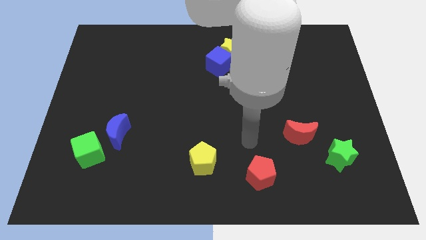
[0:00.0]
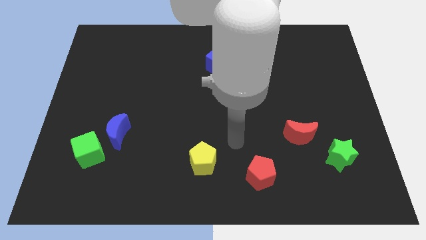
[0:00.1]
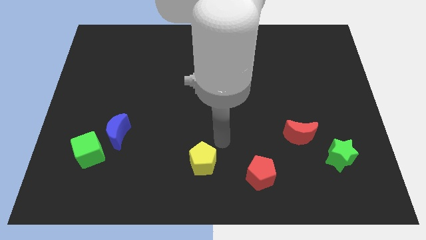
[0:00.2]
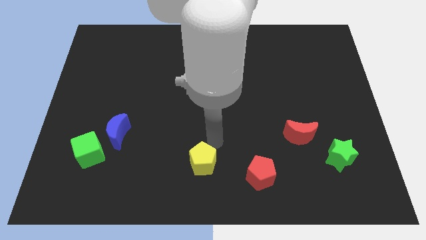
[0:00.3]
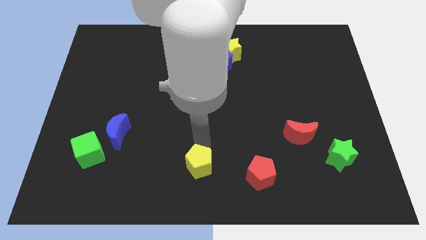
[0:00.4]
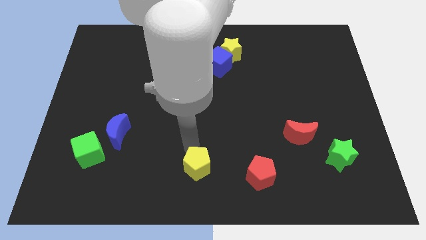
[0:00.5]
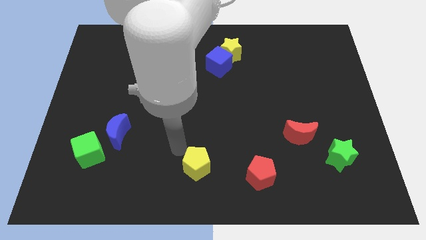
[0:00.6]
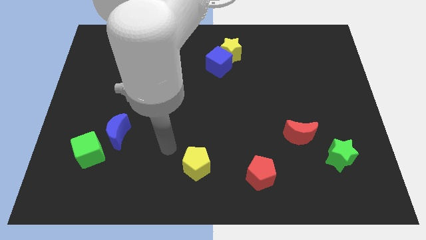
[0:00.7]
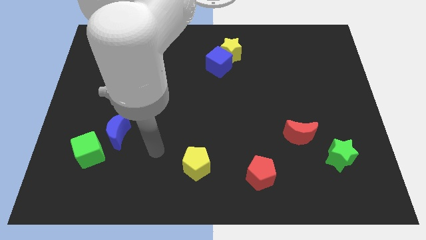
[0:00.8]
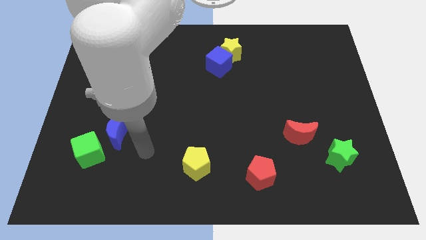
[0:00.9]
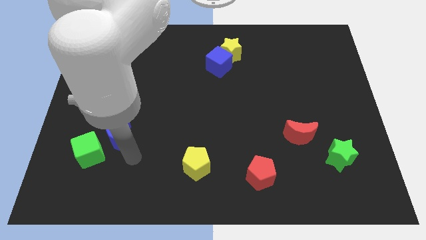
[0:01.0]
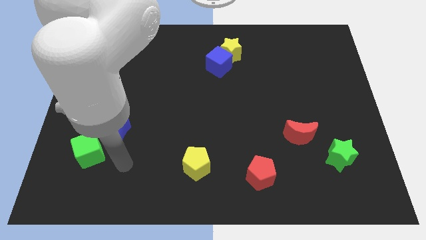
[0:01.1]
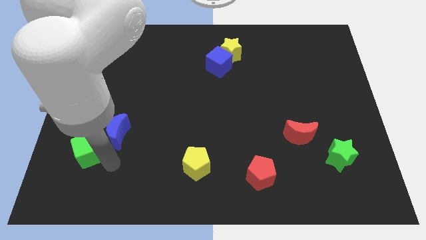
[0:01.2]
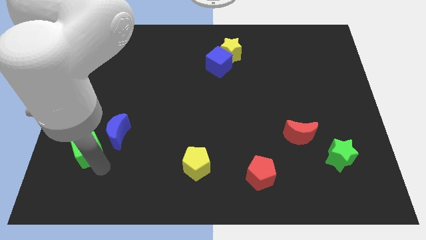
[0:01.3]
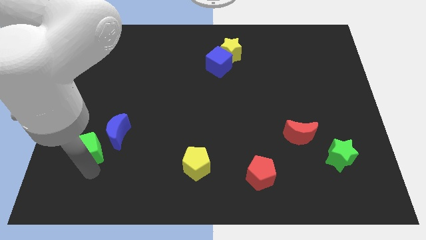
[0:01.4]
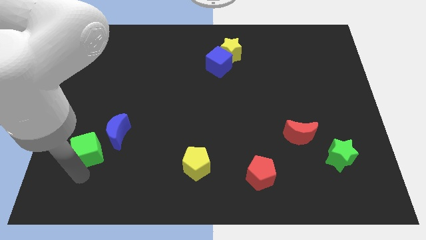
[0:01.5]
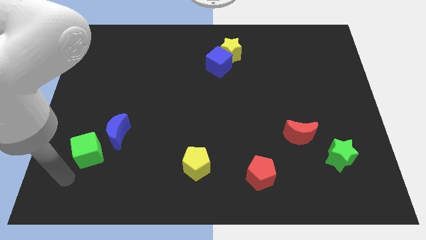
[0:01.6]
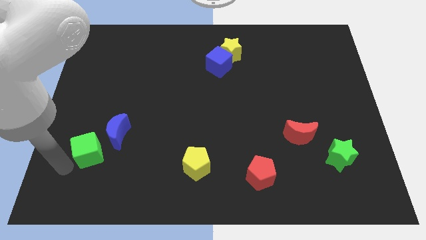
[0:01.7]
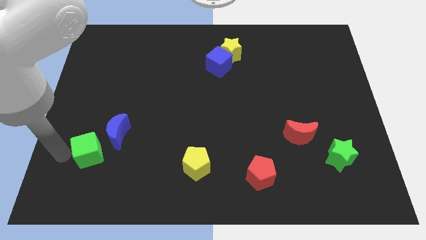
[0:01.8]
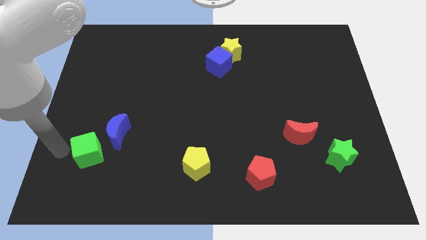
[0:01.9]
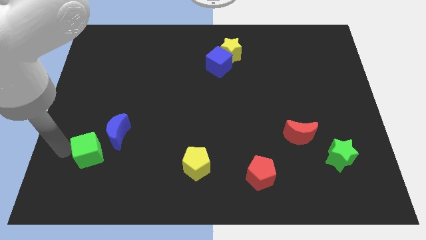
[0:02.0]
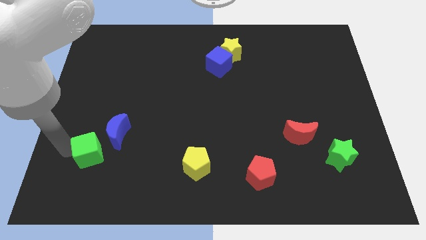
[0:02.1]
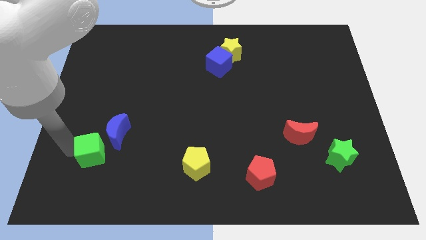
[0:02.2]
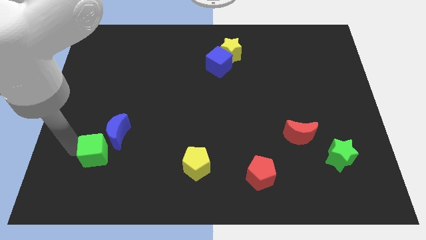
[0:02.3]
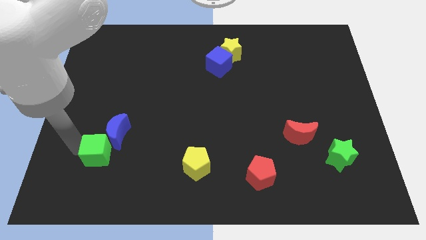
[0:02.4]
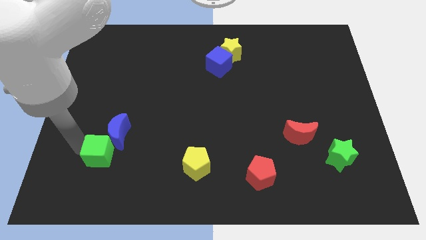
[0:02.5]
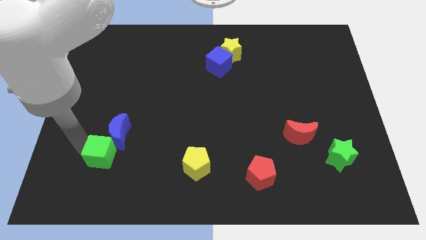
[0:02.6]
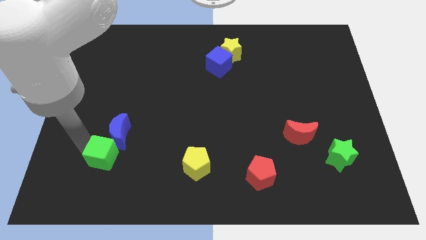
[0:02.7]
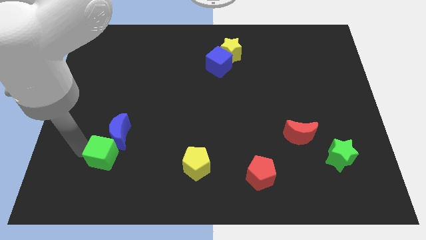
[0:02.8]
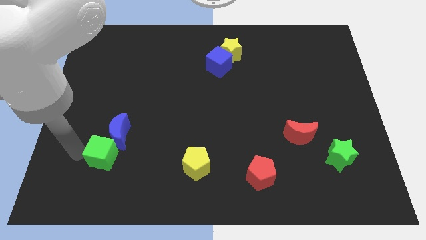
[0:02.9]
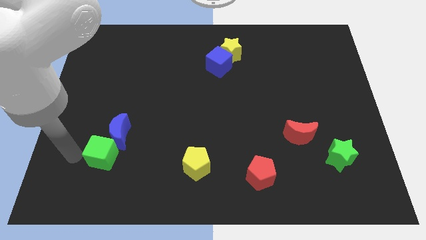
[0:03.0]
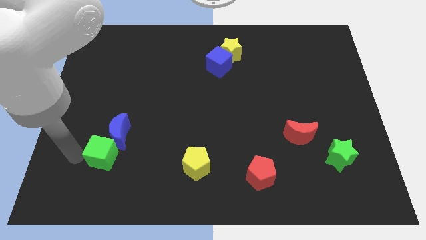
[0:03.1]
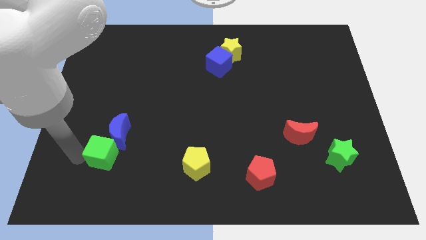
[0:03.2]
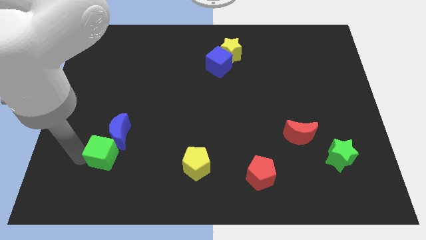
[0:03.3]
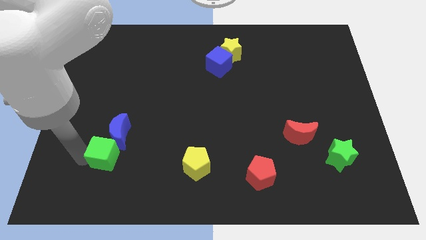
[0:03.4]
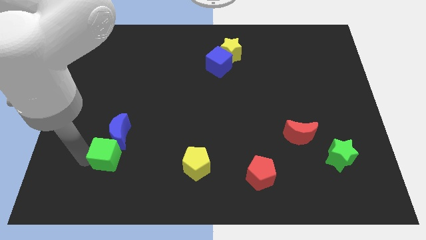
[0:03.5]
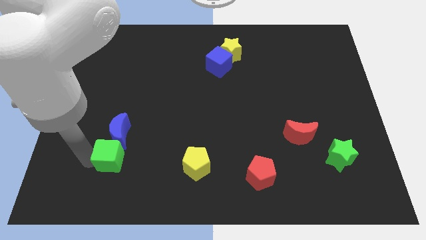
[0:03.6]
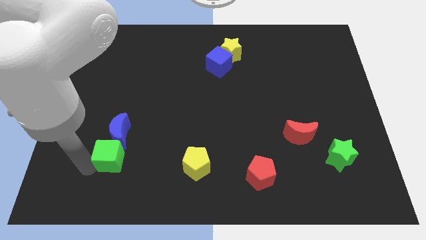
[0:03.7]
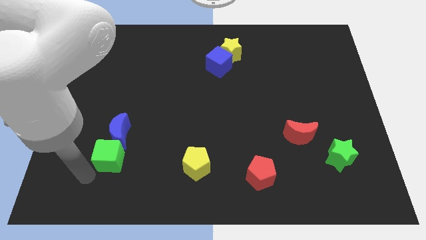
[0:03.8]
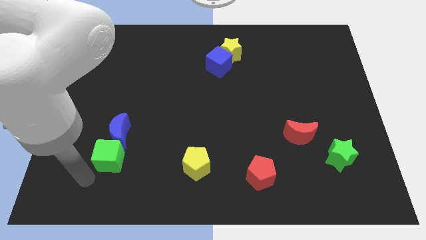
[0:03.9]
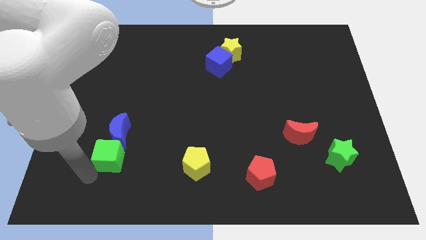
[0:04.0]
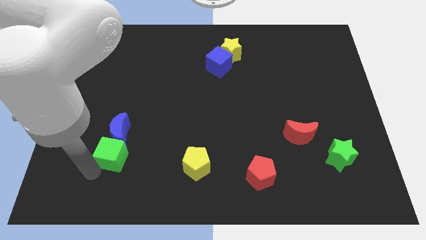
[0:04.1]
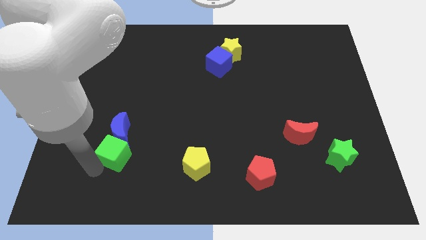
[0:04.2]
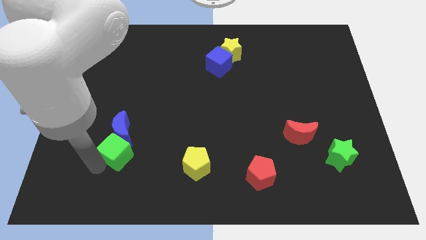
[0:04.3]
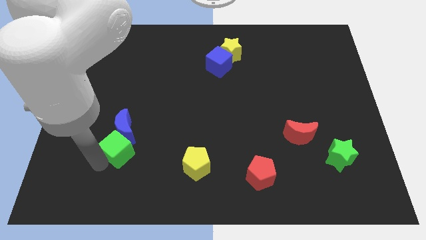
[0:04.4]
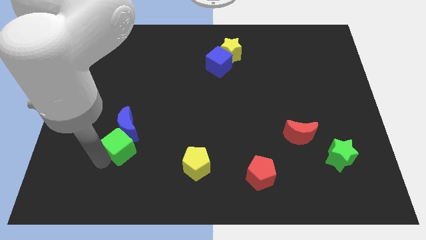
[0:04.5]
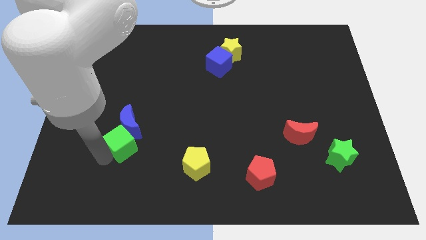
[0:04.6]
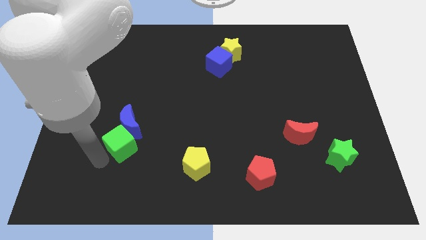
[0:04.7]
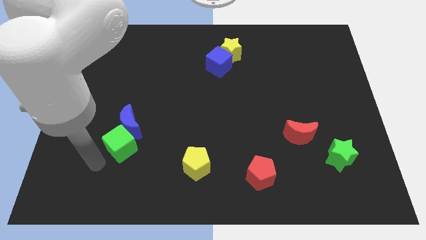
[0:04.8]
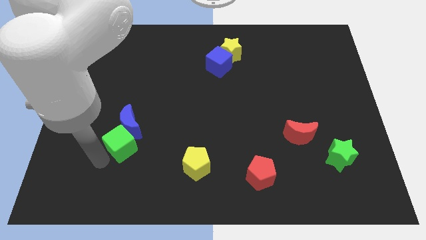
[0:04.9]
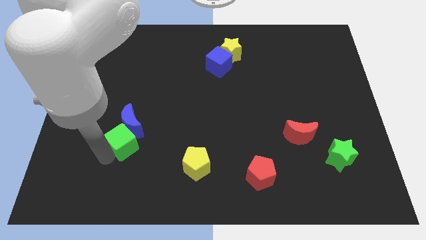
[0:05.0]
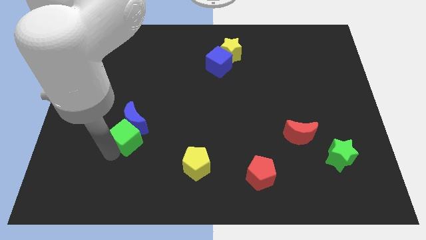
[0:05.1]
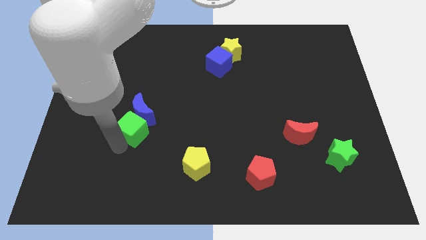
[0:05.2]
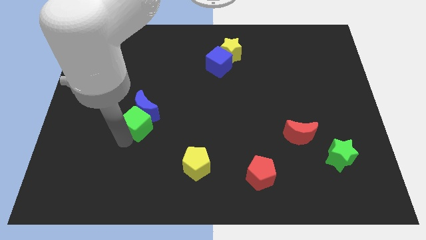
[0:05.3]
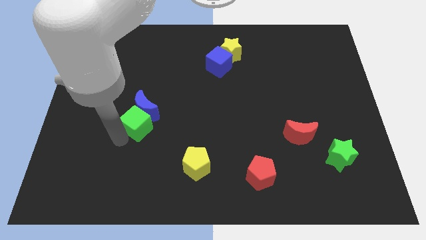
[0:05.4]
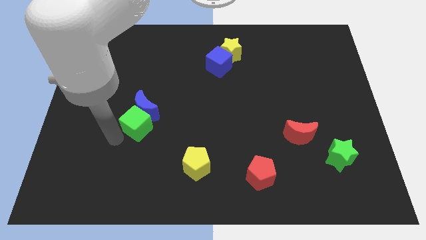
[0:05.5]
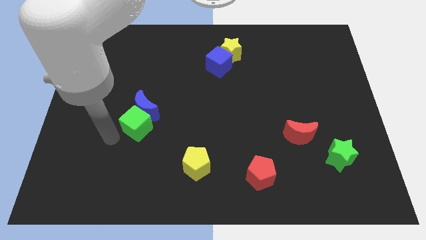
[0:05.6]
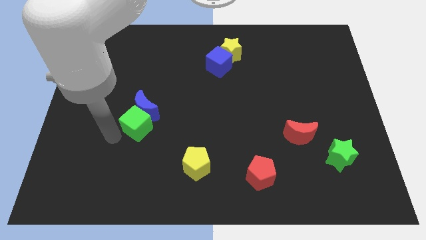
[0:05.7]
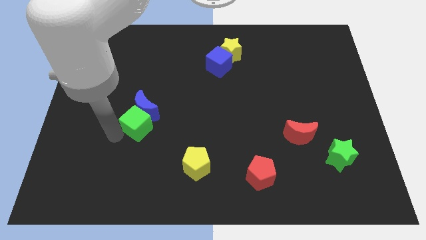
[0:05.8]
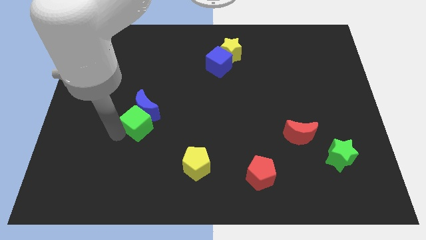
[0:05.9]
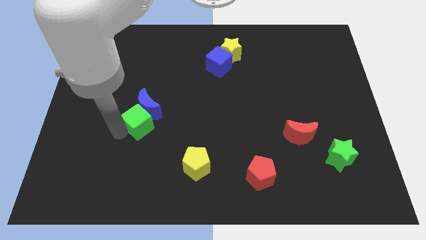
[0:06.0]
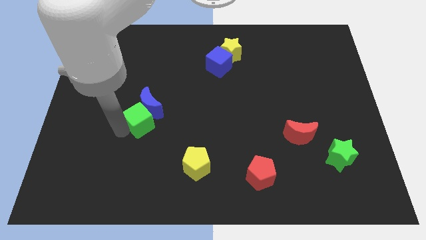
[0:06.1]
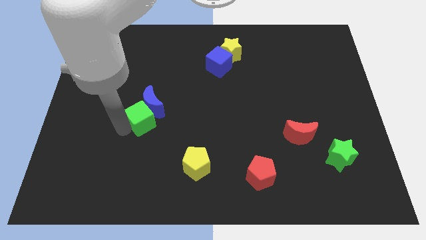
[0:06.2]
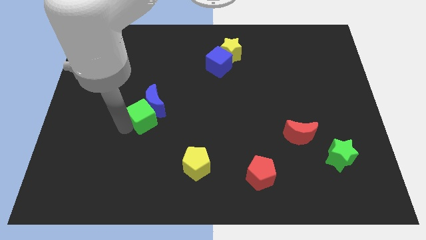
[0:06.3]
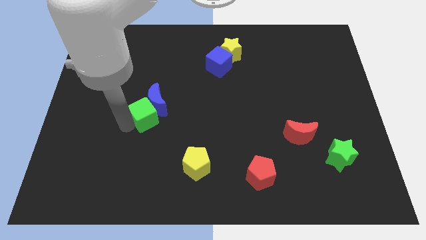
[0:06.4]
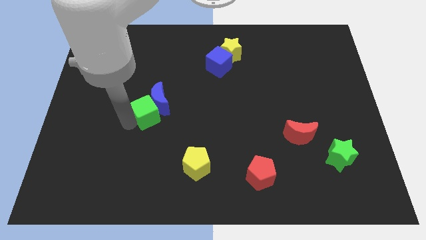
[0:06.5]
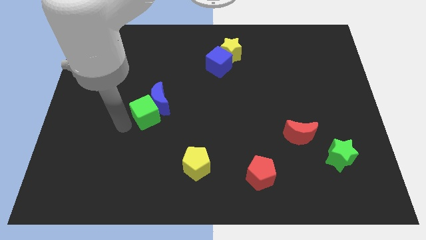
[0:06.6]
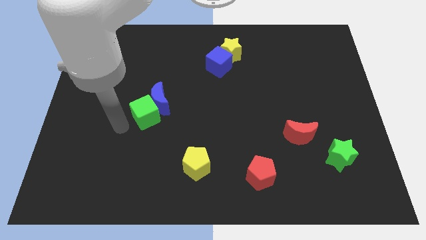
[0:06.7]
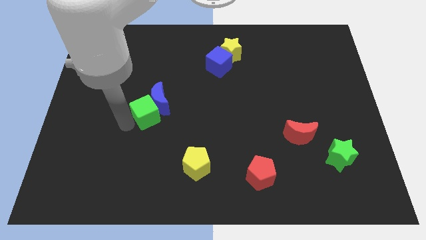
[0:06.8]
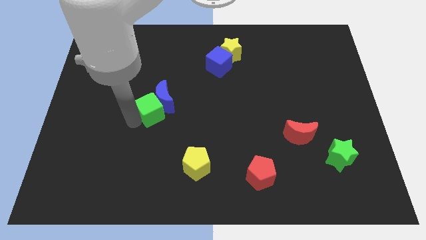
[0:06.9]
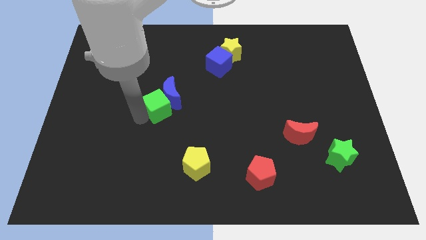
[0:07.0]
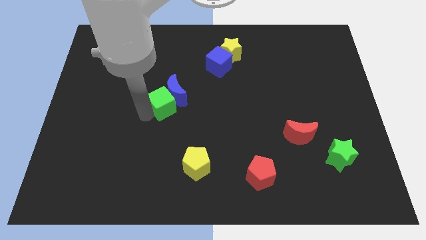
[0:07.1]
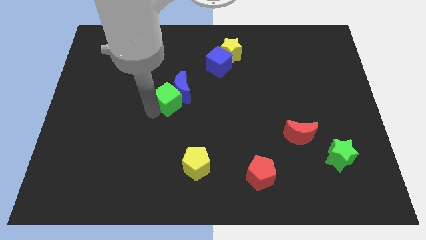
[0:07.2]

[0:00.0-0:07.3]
slide the green cube diagonally up and to the right

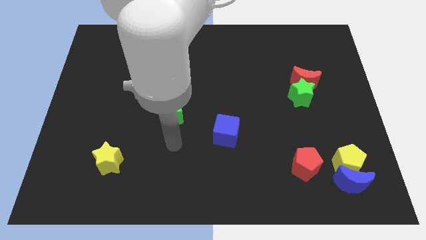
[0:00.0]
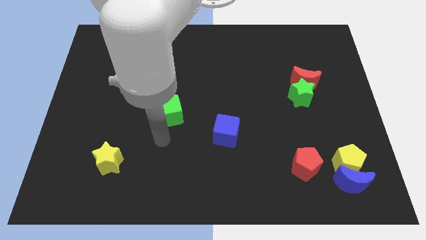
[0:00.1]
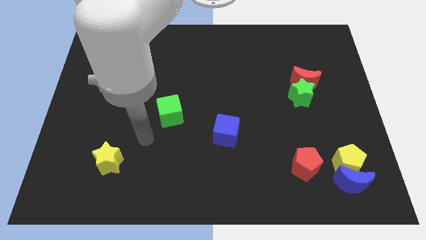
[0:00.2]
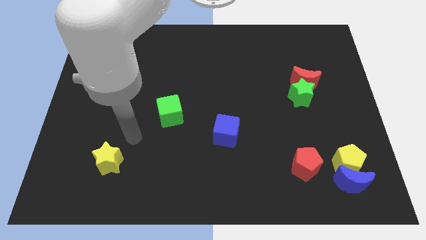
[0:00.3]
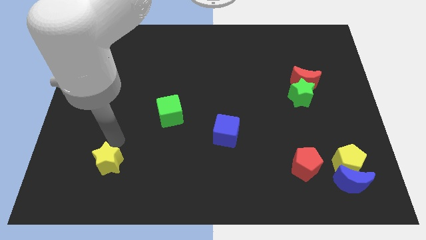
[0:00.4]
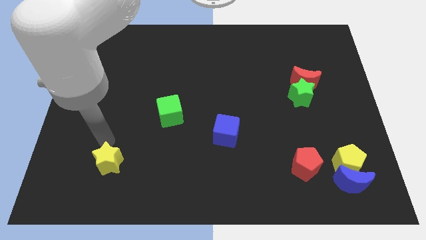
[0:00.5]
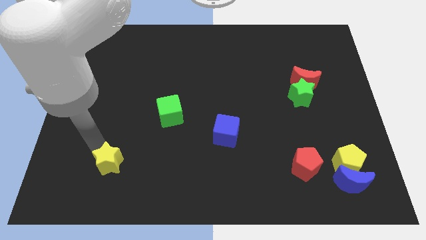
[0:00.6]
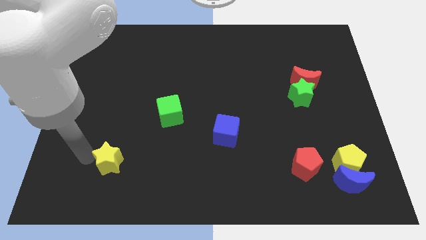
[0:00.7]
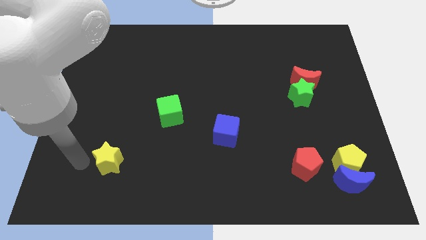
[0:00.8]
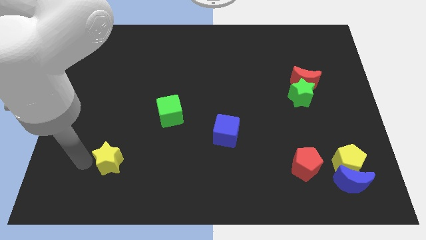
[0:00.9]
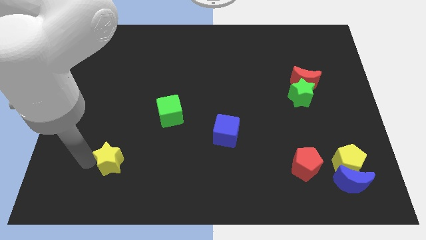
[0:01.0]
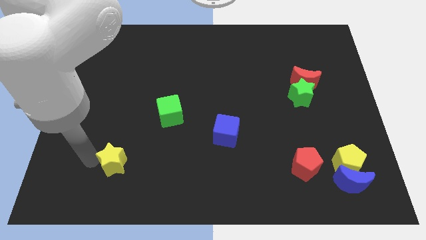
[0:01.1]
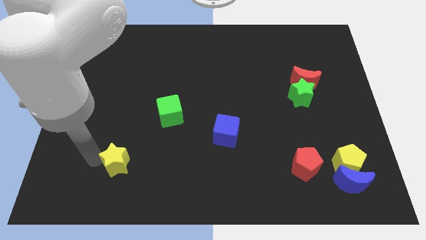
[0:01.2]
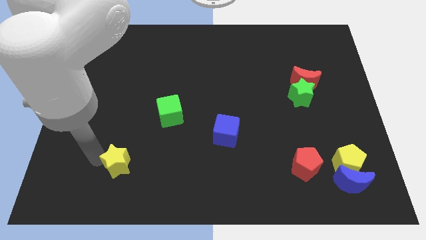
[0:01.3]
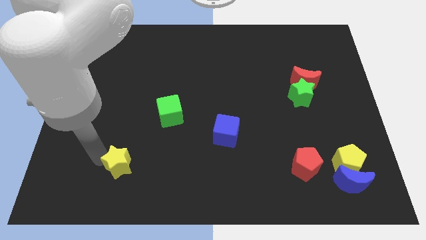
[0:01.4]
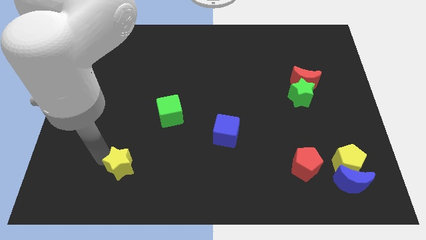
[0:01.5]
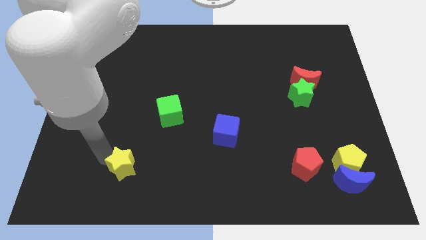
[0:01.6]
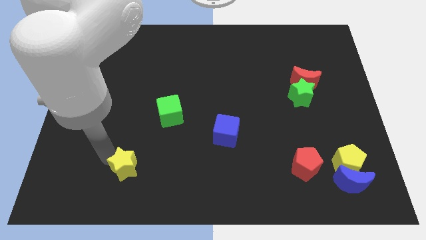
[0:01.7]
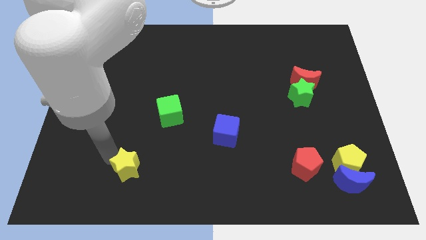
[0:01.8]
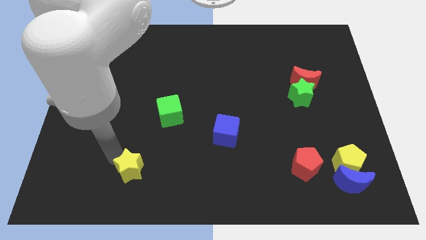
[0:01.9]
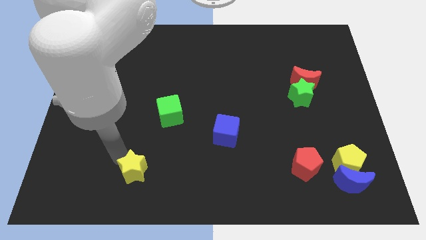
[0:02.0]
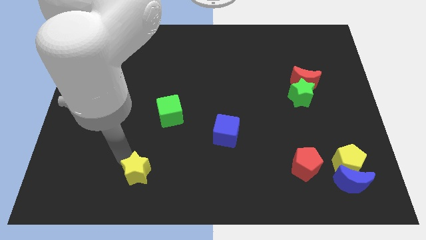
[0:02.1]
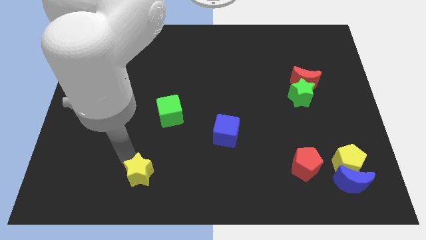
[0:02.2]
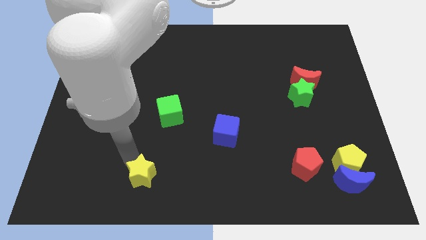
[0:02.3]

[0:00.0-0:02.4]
move the yellow star somewhat to the right
